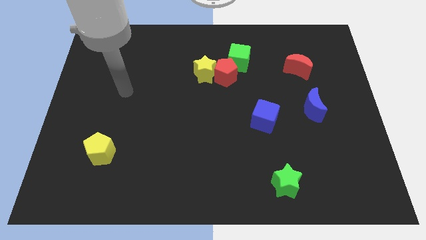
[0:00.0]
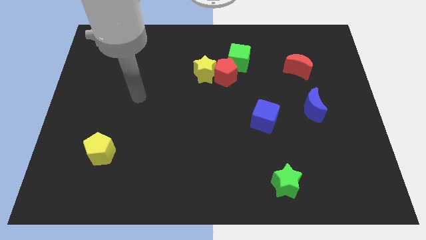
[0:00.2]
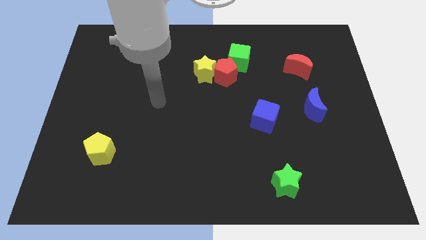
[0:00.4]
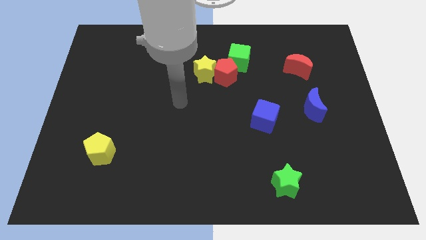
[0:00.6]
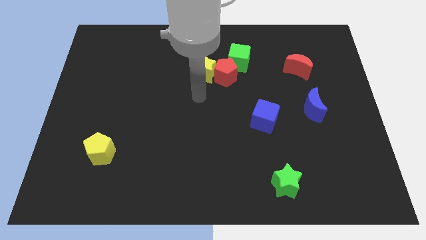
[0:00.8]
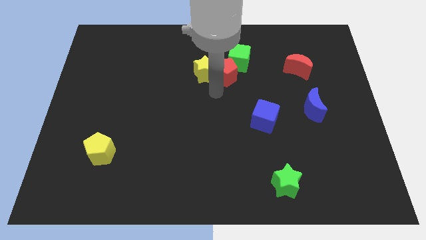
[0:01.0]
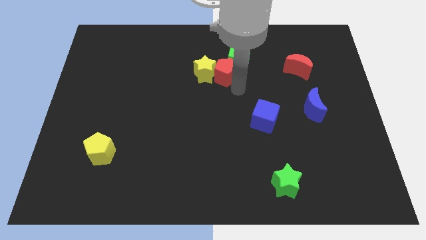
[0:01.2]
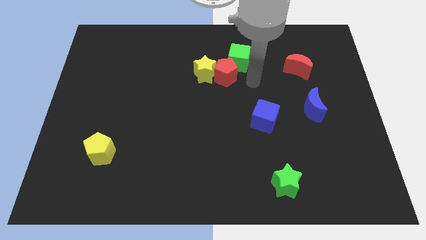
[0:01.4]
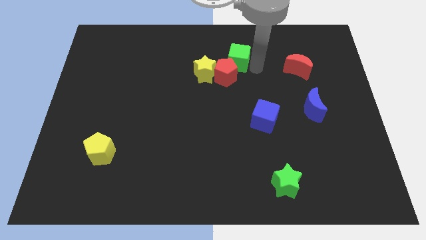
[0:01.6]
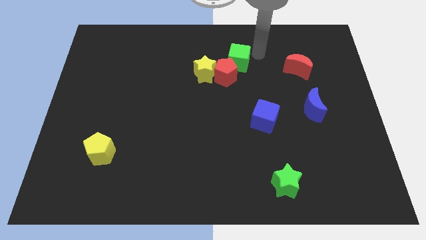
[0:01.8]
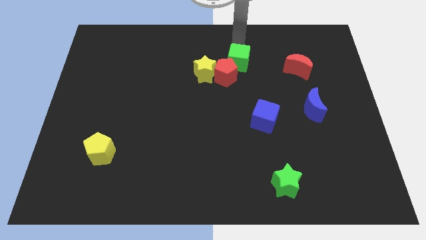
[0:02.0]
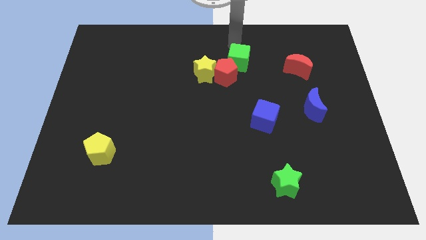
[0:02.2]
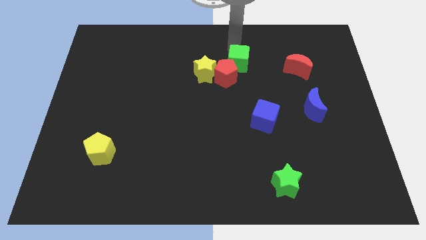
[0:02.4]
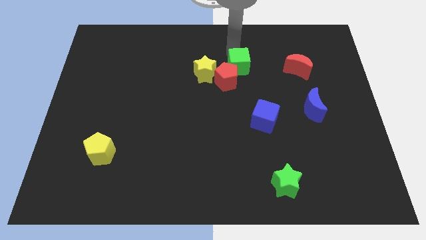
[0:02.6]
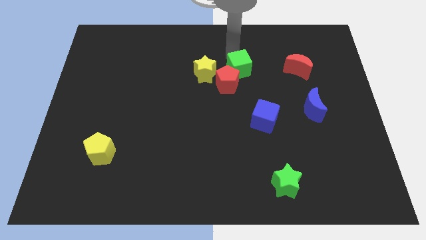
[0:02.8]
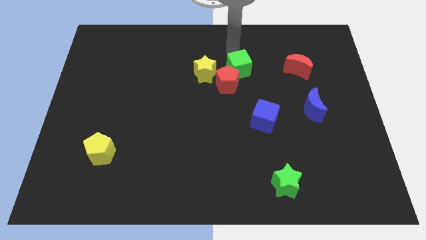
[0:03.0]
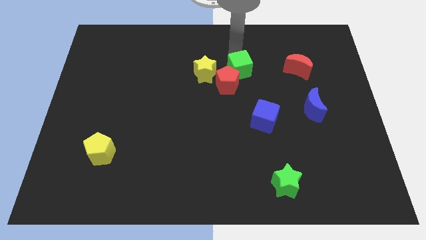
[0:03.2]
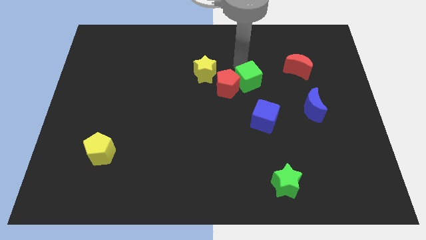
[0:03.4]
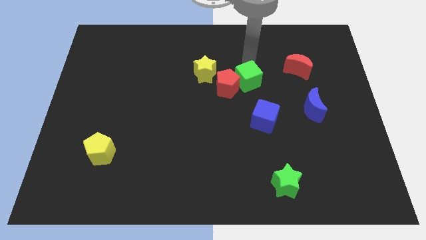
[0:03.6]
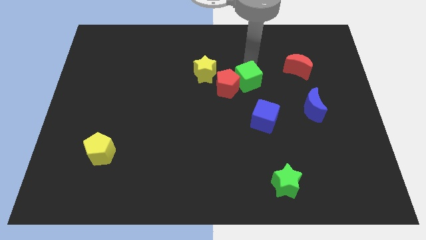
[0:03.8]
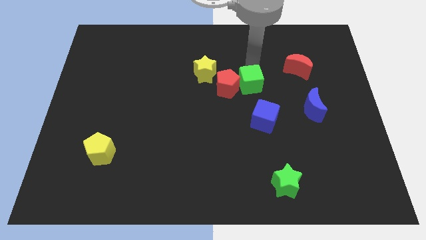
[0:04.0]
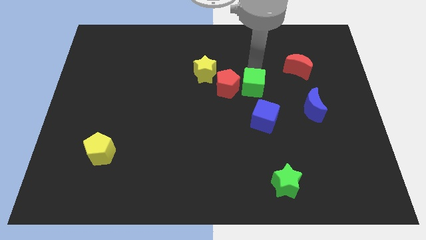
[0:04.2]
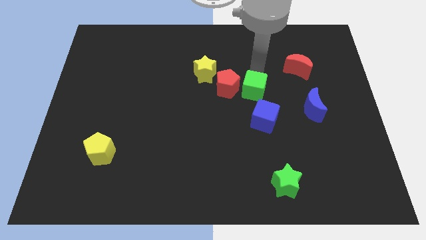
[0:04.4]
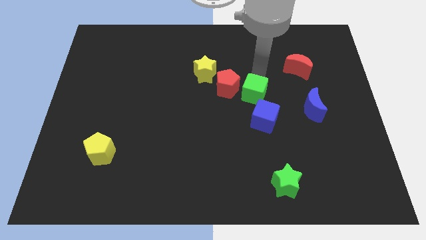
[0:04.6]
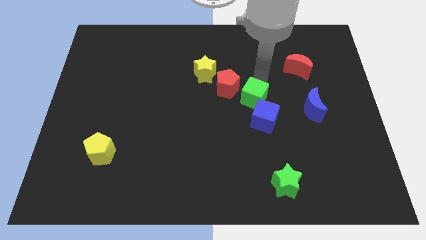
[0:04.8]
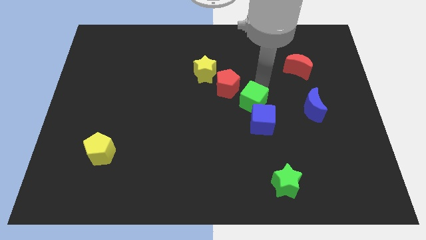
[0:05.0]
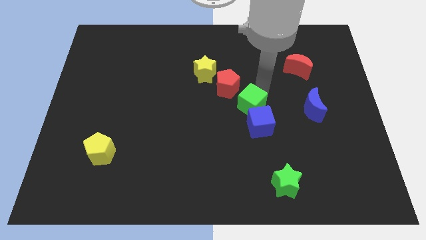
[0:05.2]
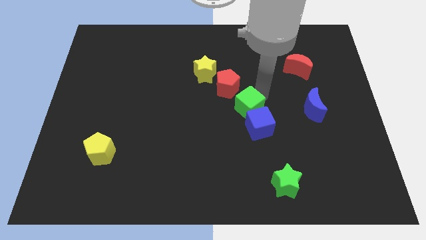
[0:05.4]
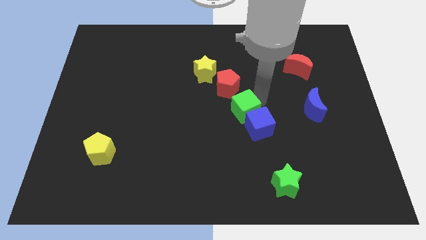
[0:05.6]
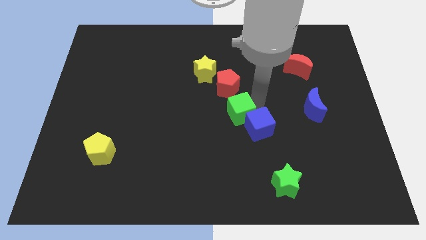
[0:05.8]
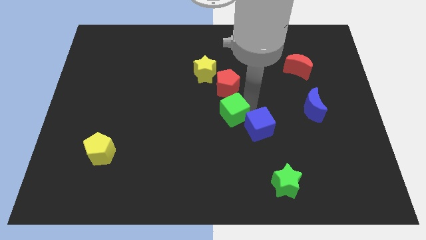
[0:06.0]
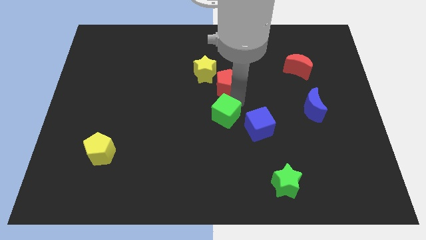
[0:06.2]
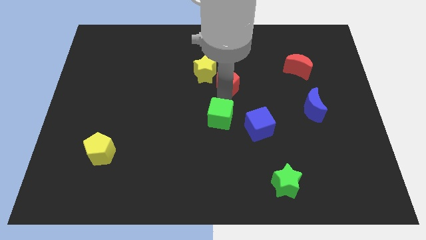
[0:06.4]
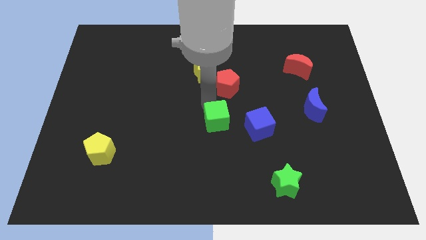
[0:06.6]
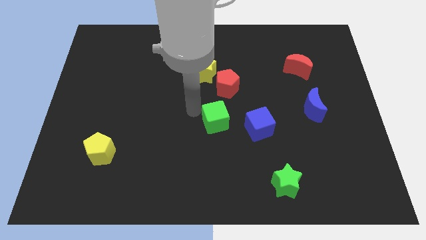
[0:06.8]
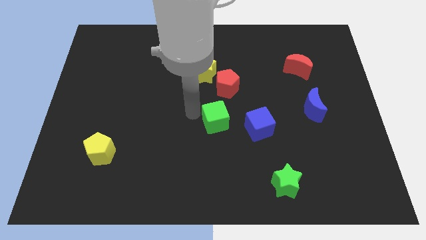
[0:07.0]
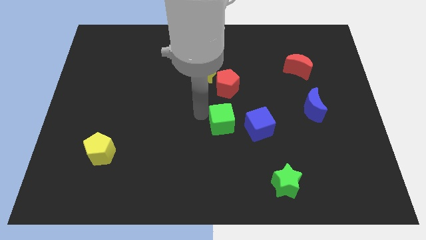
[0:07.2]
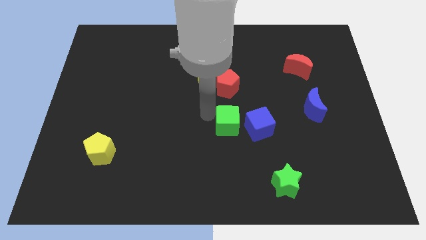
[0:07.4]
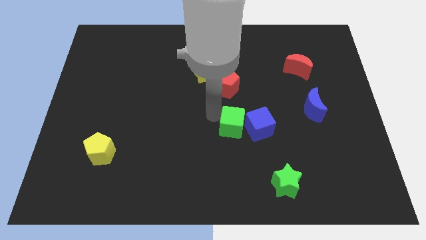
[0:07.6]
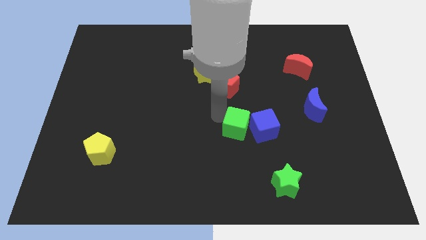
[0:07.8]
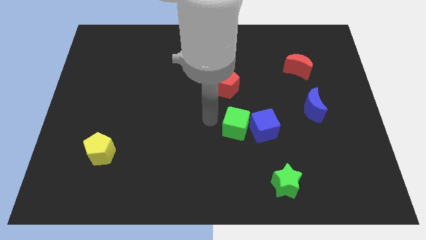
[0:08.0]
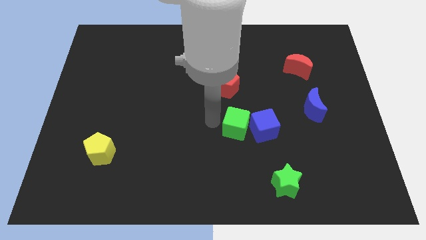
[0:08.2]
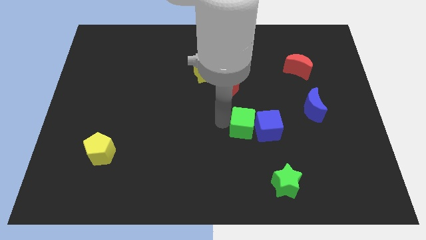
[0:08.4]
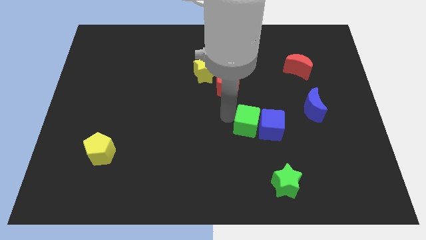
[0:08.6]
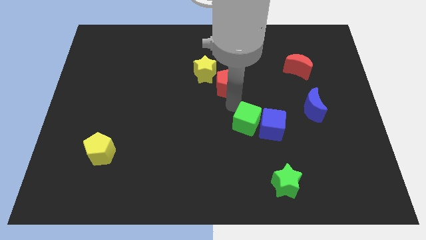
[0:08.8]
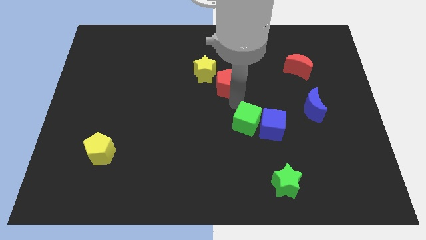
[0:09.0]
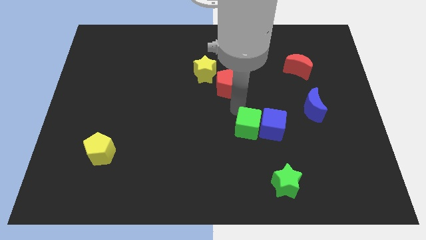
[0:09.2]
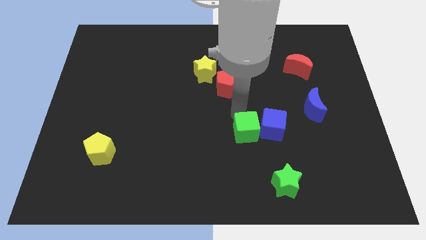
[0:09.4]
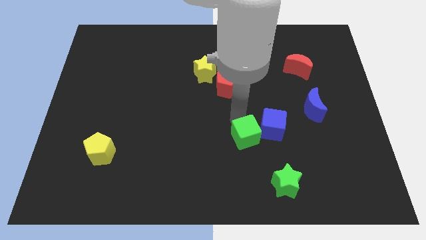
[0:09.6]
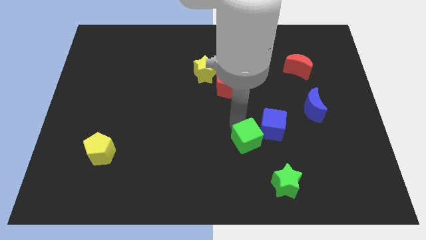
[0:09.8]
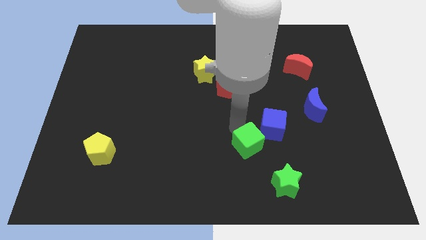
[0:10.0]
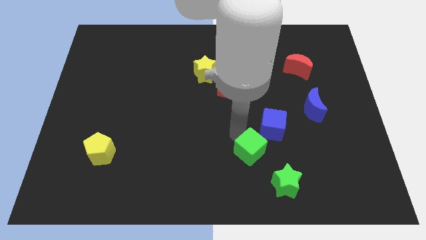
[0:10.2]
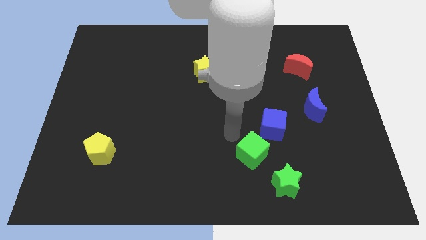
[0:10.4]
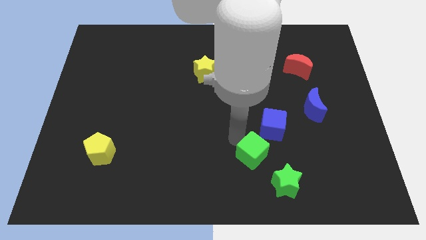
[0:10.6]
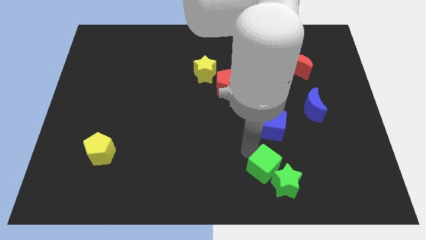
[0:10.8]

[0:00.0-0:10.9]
move the green cube to the green star
